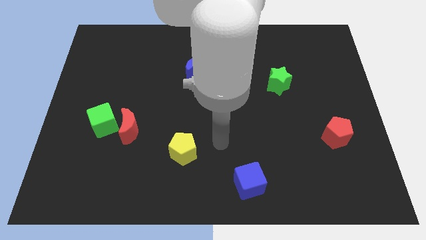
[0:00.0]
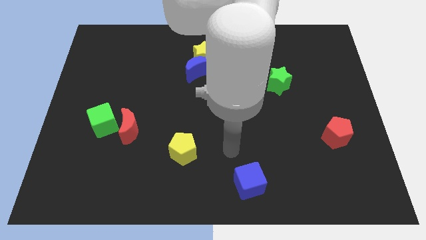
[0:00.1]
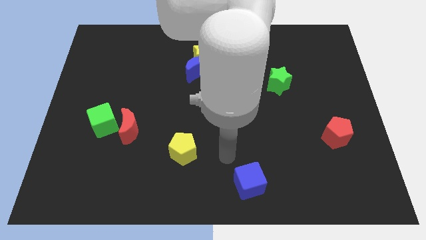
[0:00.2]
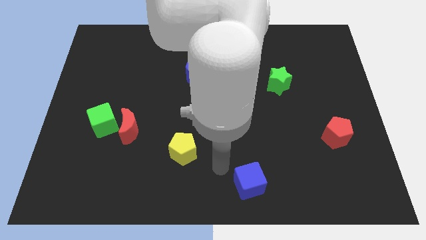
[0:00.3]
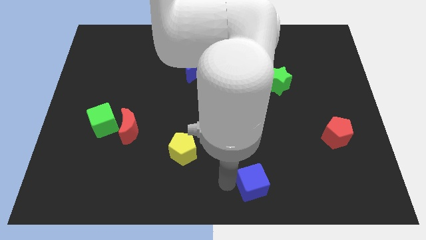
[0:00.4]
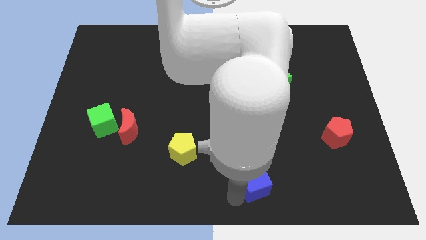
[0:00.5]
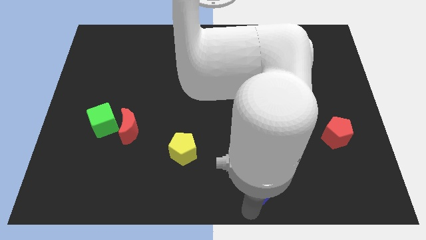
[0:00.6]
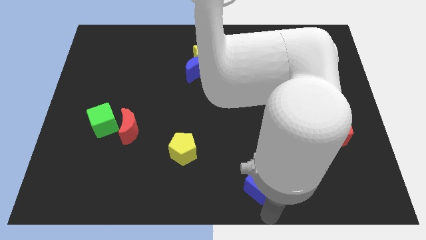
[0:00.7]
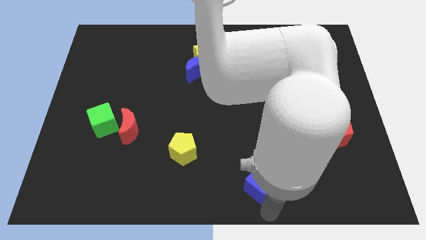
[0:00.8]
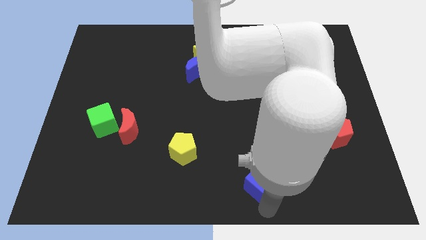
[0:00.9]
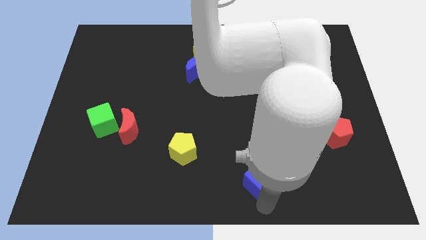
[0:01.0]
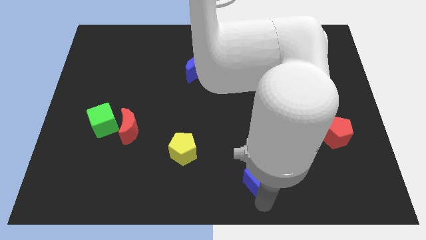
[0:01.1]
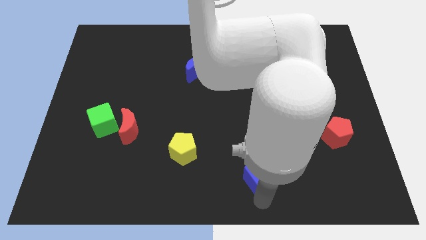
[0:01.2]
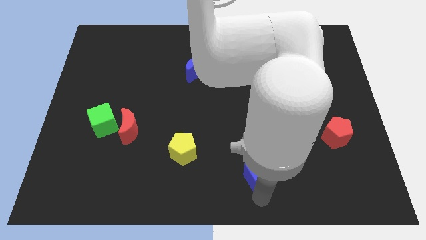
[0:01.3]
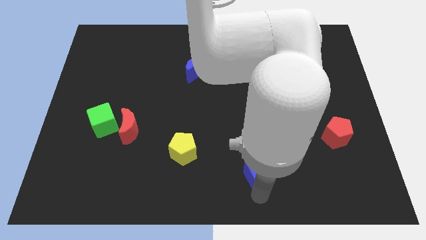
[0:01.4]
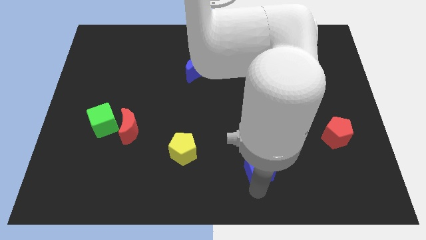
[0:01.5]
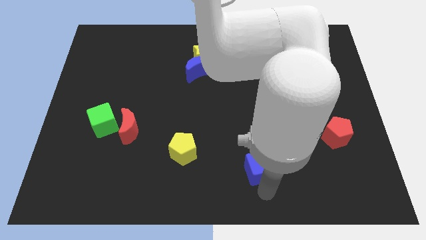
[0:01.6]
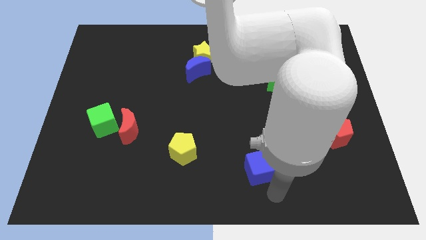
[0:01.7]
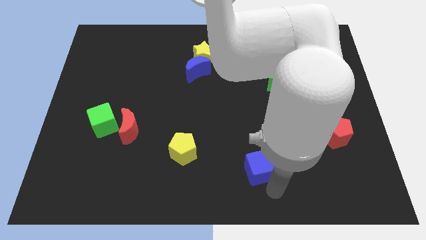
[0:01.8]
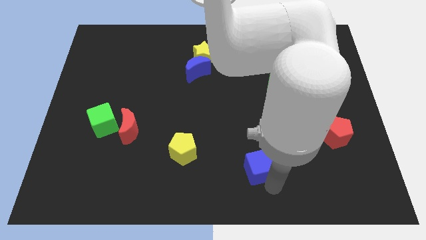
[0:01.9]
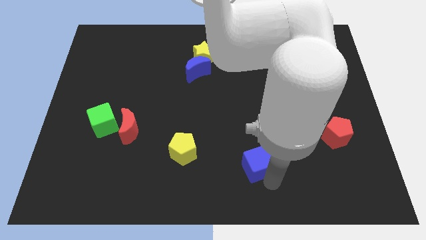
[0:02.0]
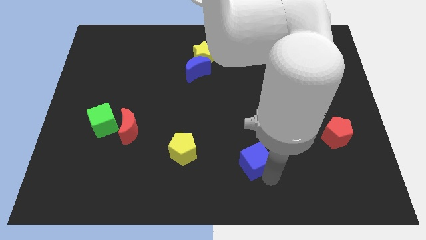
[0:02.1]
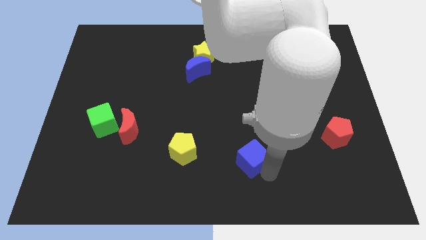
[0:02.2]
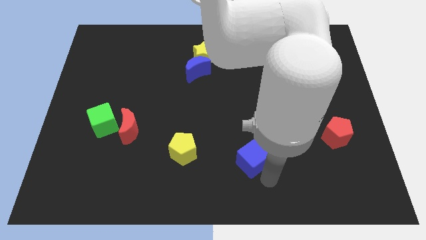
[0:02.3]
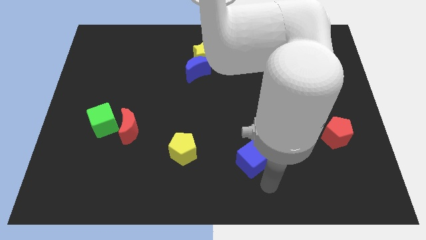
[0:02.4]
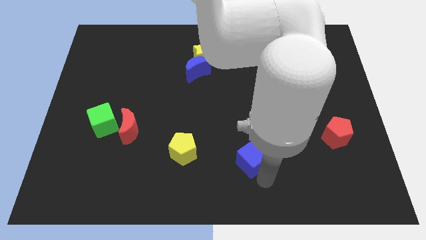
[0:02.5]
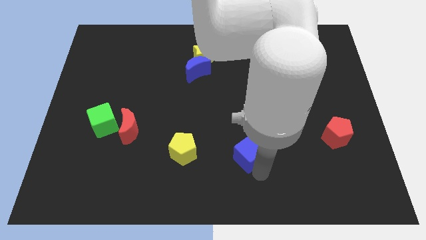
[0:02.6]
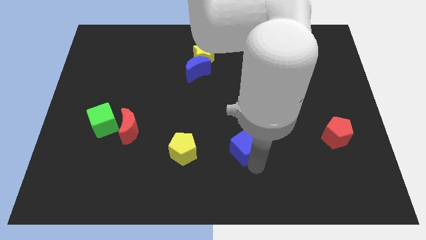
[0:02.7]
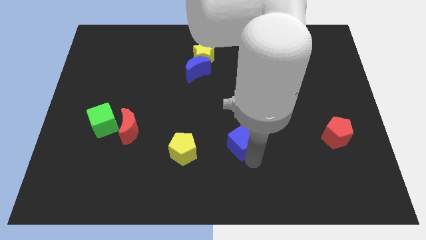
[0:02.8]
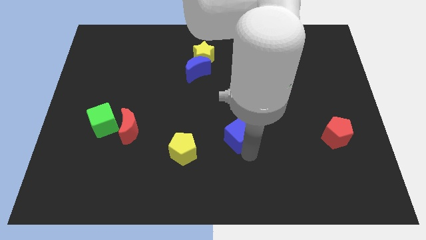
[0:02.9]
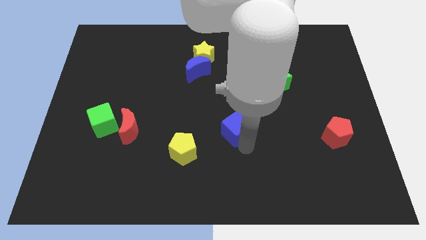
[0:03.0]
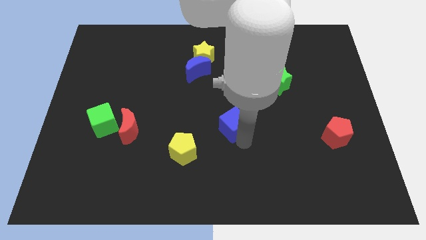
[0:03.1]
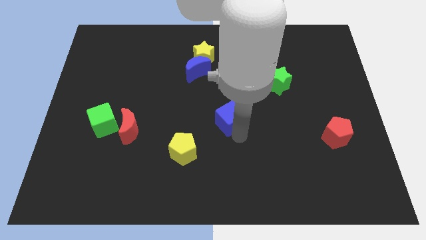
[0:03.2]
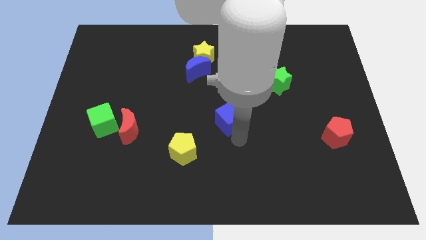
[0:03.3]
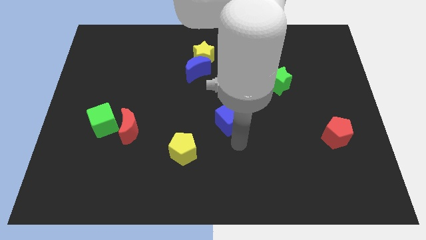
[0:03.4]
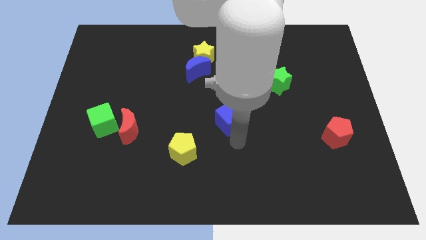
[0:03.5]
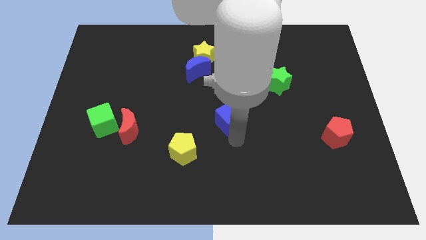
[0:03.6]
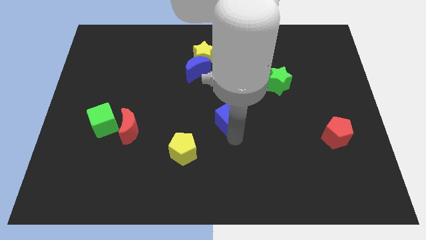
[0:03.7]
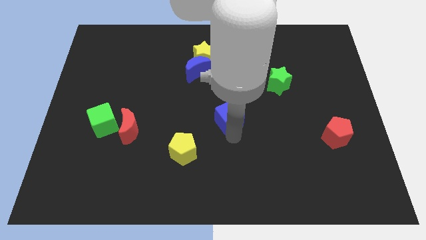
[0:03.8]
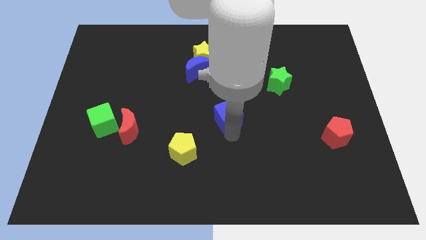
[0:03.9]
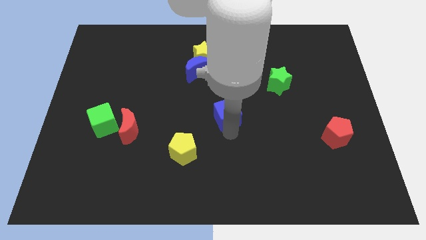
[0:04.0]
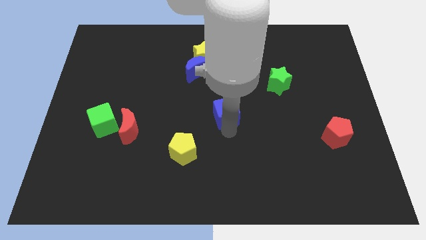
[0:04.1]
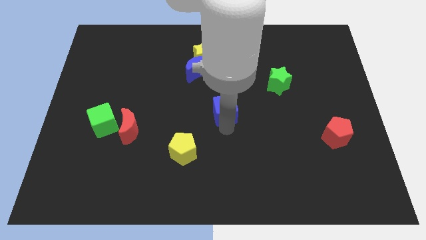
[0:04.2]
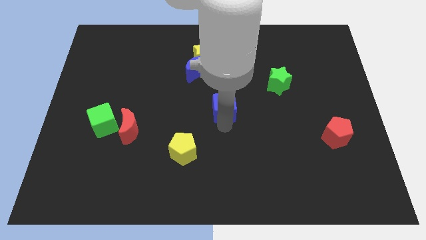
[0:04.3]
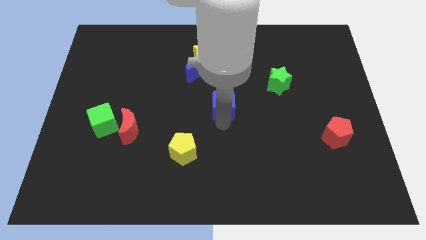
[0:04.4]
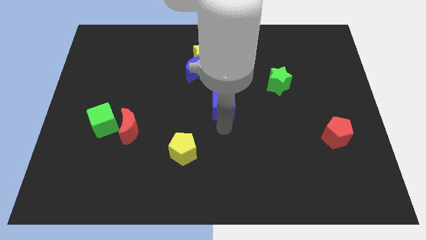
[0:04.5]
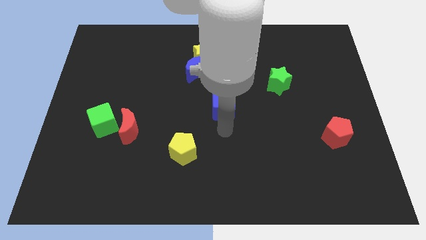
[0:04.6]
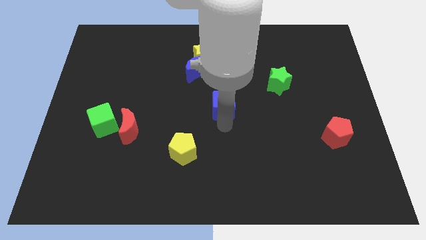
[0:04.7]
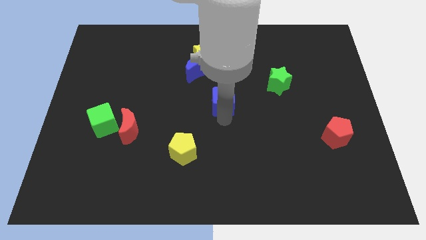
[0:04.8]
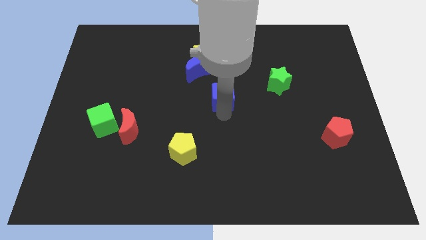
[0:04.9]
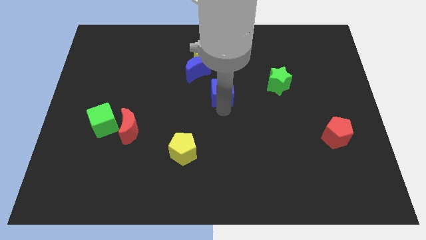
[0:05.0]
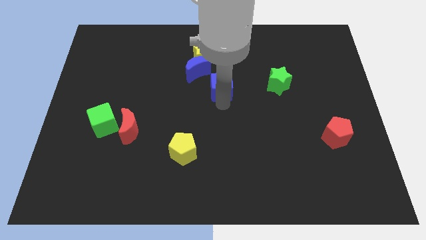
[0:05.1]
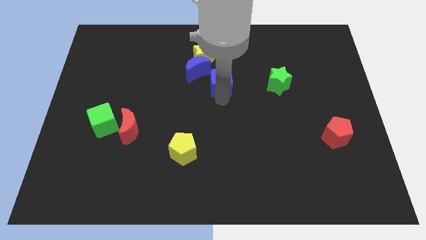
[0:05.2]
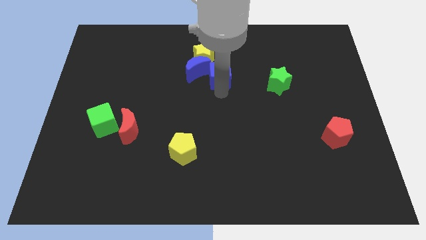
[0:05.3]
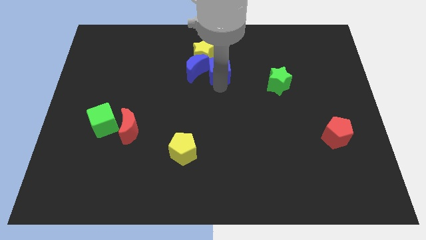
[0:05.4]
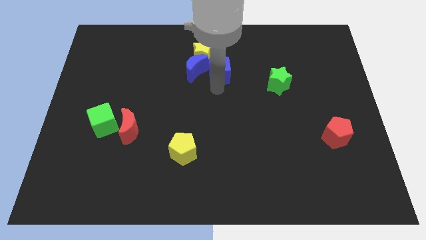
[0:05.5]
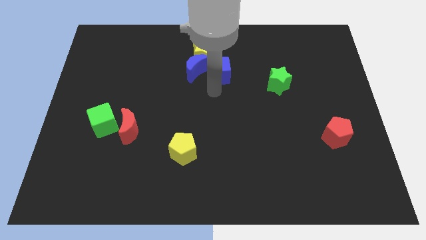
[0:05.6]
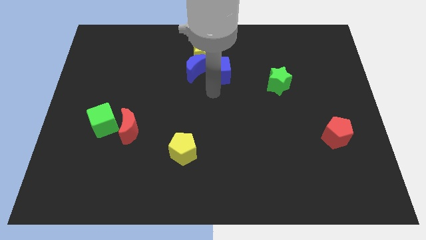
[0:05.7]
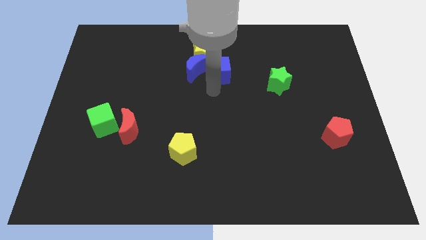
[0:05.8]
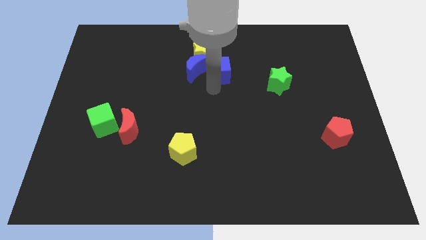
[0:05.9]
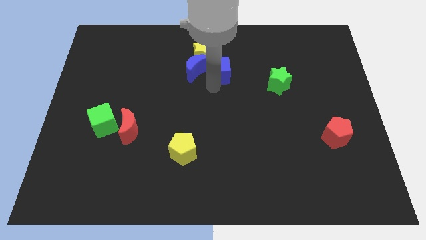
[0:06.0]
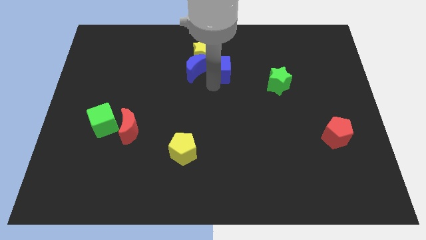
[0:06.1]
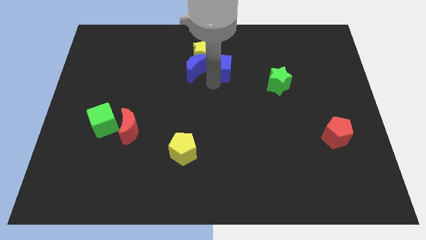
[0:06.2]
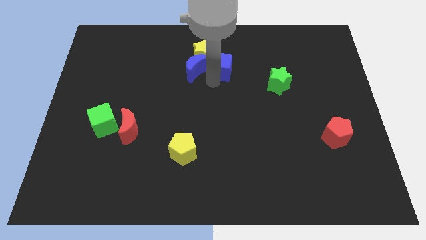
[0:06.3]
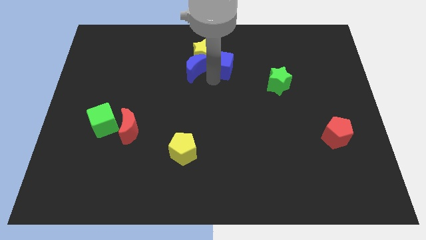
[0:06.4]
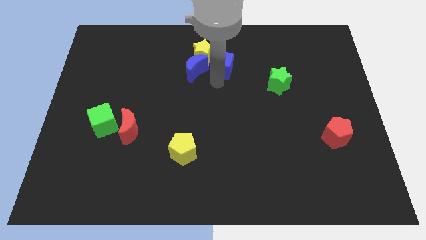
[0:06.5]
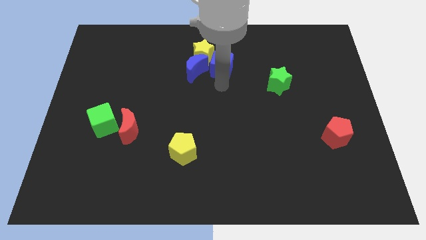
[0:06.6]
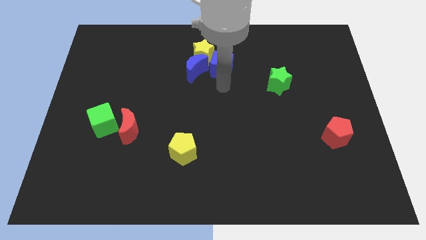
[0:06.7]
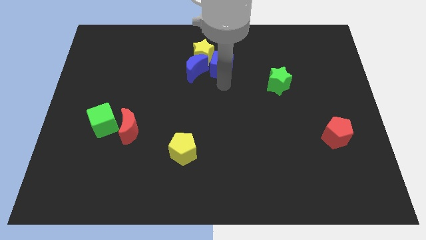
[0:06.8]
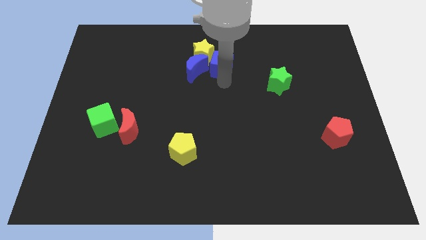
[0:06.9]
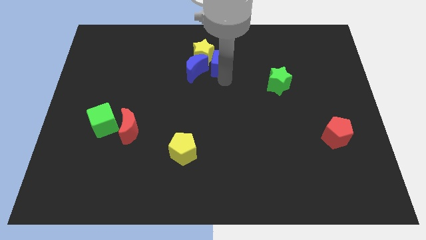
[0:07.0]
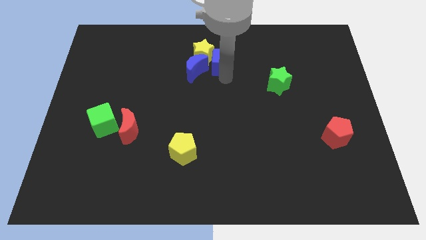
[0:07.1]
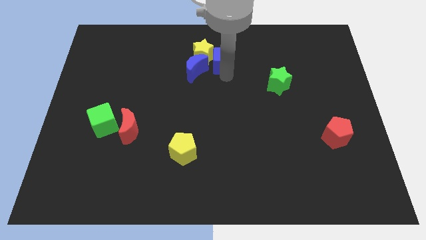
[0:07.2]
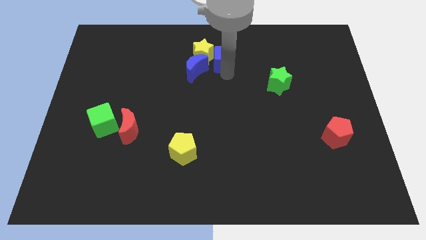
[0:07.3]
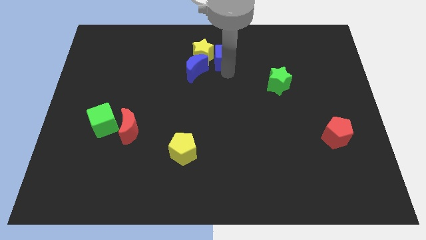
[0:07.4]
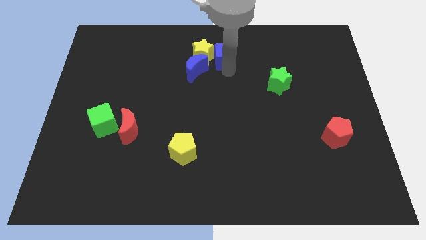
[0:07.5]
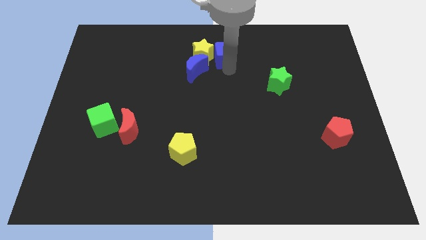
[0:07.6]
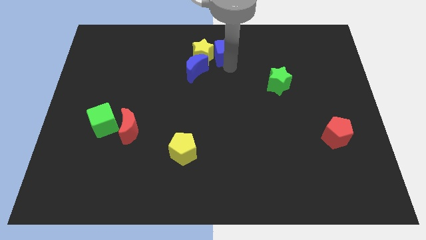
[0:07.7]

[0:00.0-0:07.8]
put the blue cube to the towards your base
